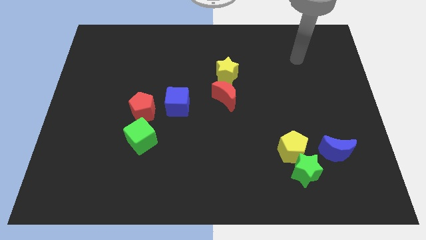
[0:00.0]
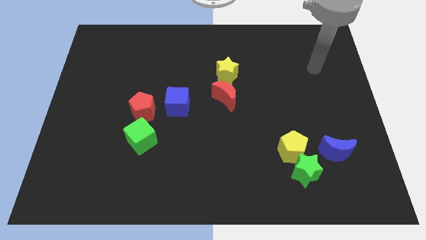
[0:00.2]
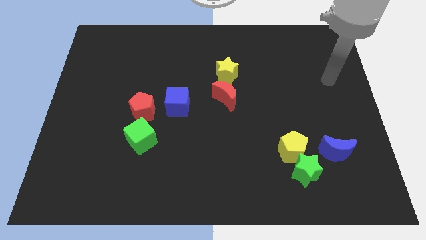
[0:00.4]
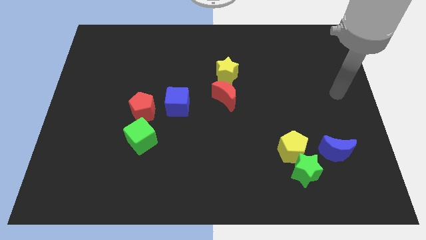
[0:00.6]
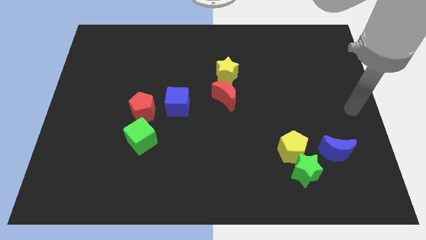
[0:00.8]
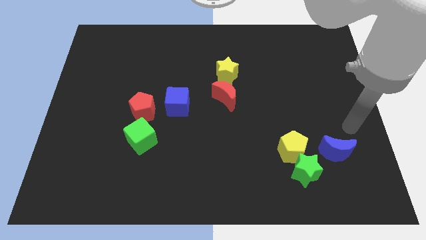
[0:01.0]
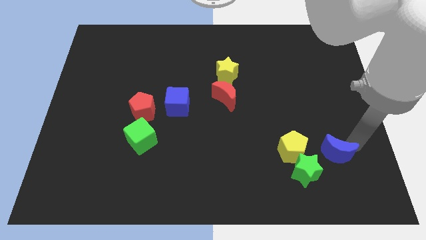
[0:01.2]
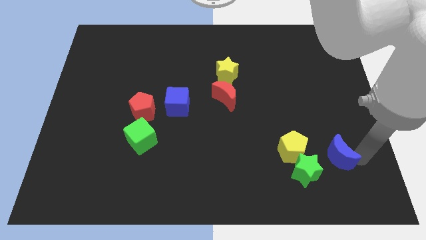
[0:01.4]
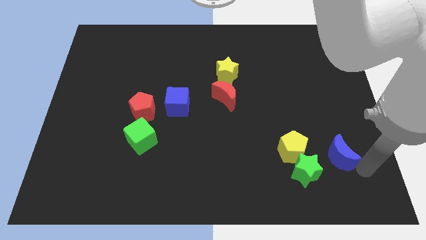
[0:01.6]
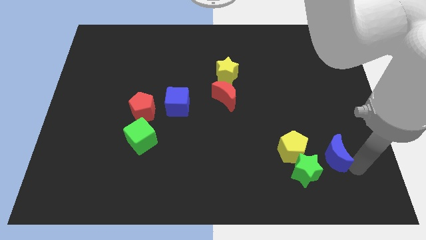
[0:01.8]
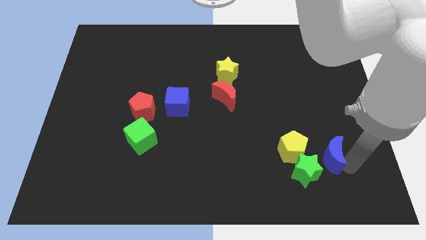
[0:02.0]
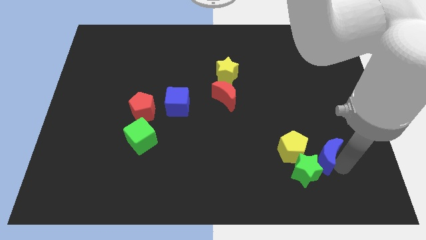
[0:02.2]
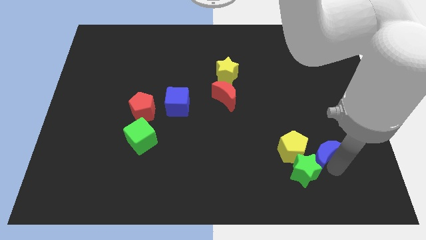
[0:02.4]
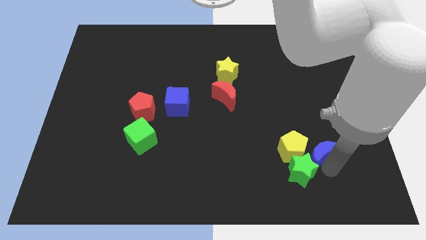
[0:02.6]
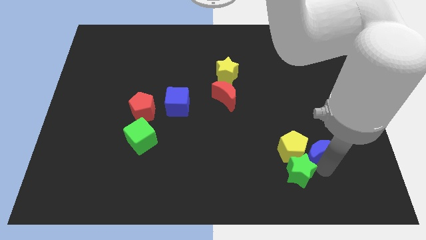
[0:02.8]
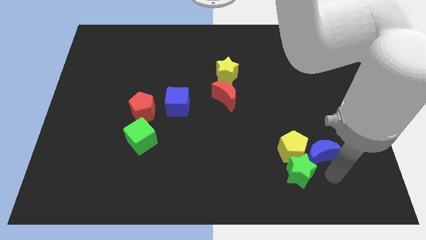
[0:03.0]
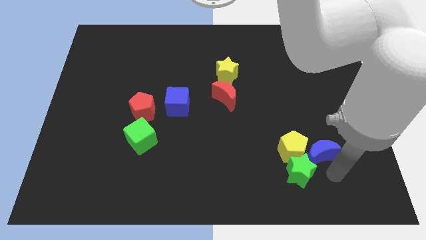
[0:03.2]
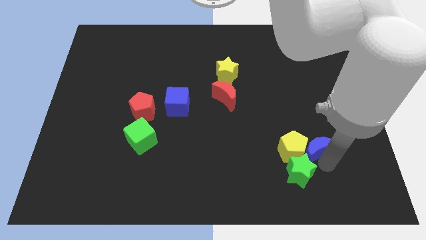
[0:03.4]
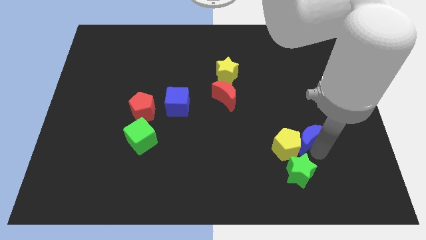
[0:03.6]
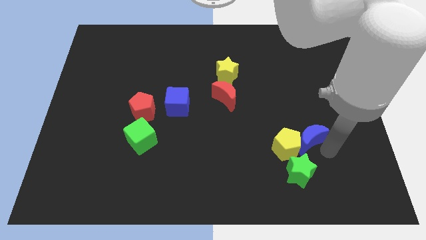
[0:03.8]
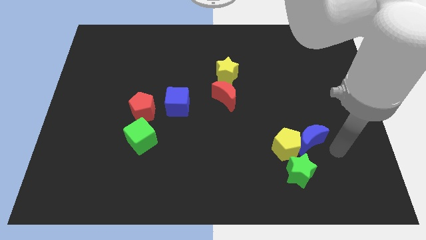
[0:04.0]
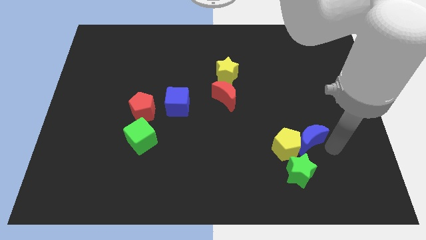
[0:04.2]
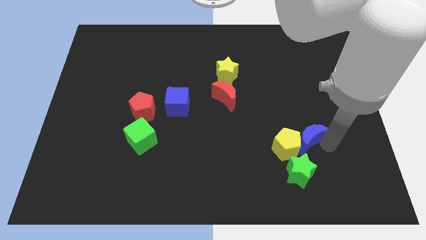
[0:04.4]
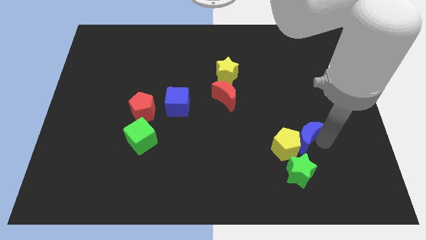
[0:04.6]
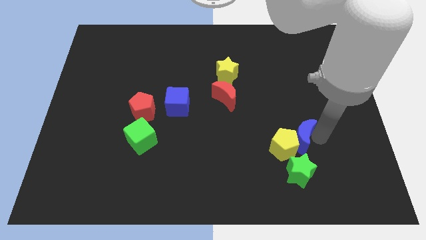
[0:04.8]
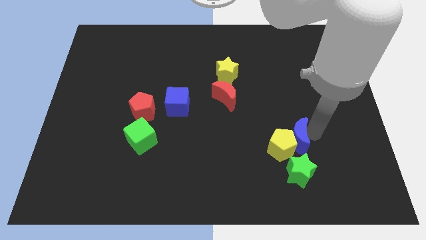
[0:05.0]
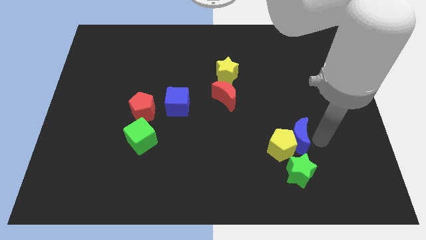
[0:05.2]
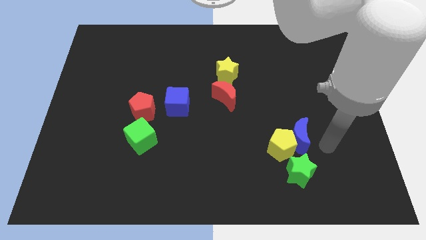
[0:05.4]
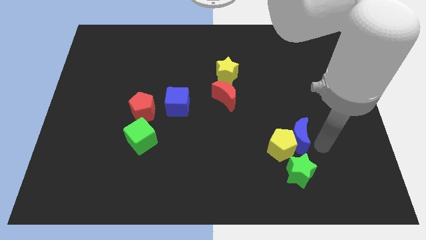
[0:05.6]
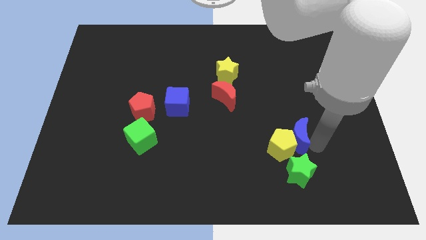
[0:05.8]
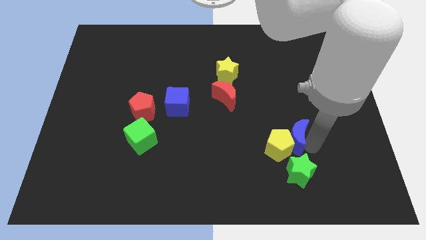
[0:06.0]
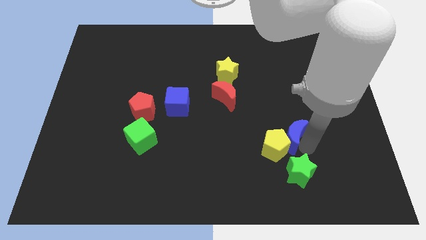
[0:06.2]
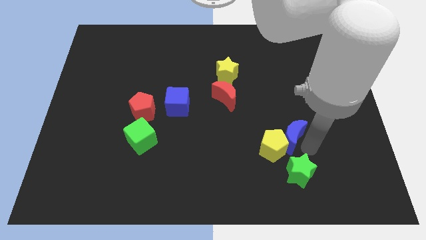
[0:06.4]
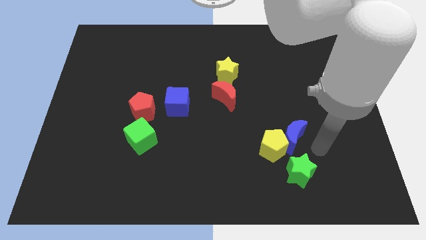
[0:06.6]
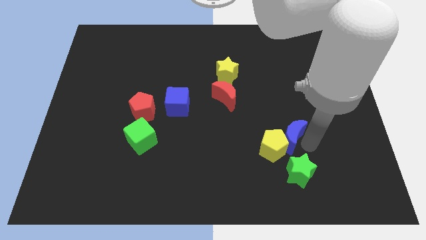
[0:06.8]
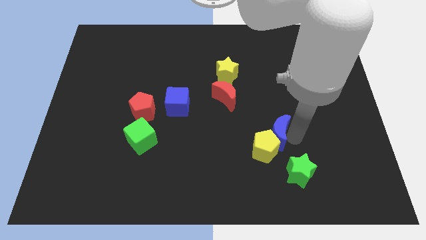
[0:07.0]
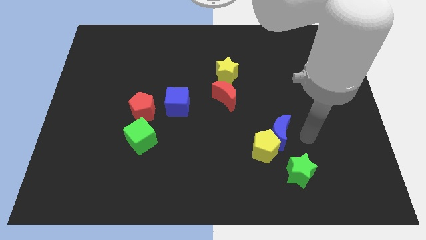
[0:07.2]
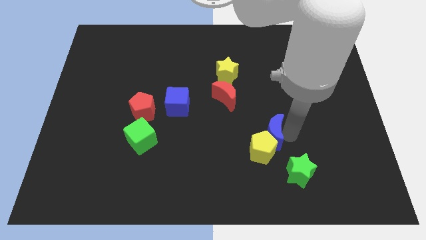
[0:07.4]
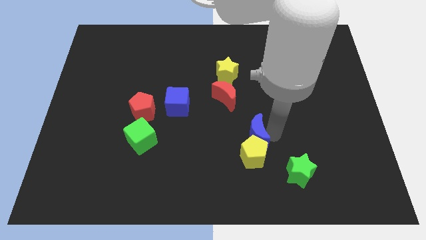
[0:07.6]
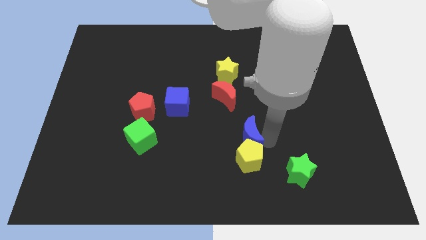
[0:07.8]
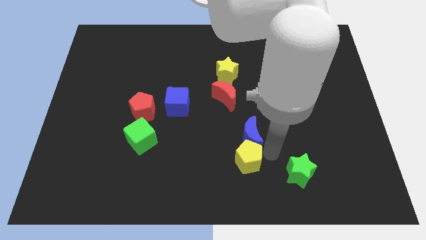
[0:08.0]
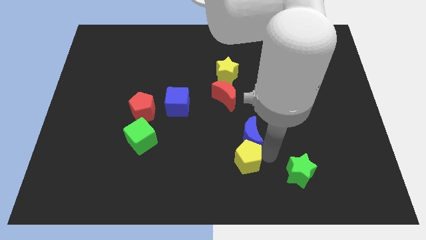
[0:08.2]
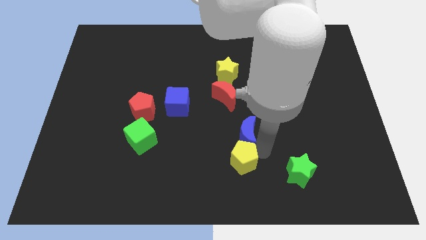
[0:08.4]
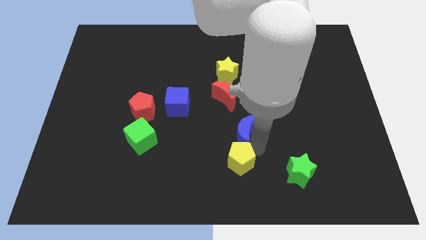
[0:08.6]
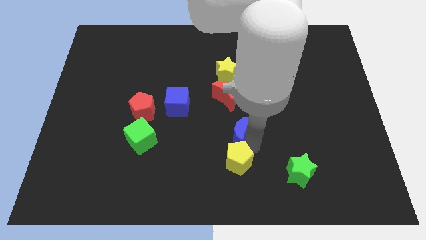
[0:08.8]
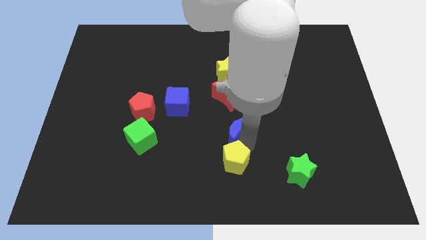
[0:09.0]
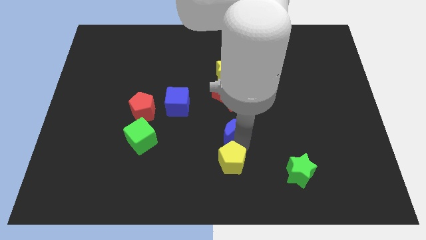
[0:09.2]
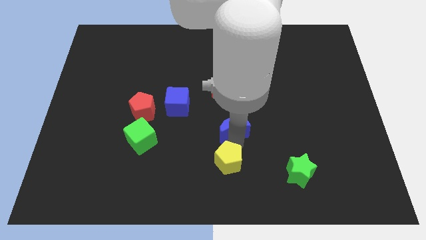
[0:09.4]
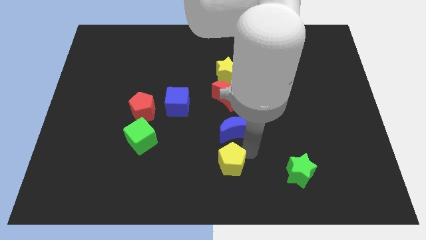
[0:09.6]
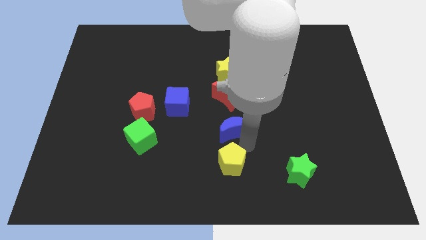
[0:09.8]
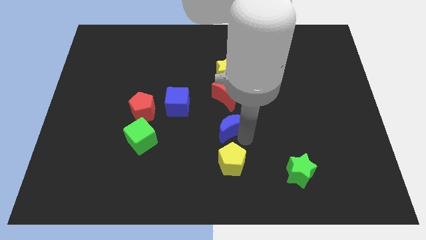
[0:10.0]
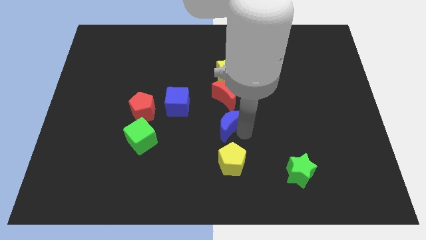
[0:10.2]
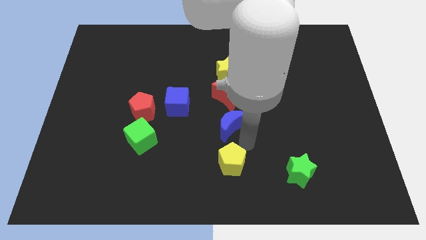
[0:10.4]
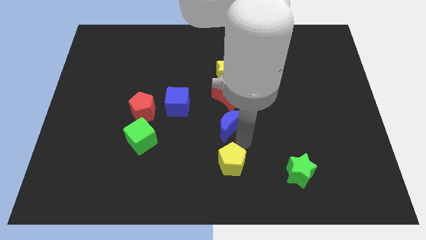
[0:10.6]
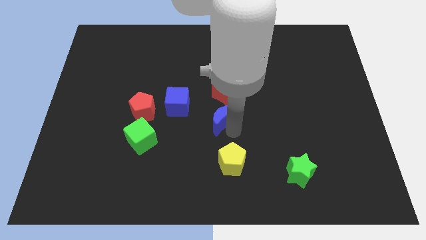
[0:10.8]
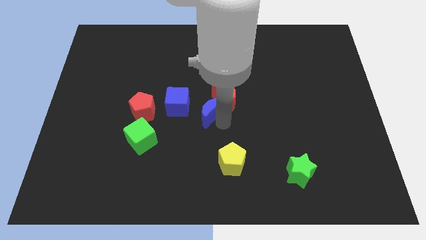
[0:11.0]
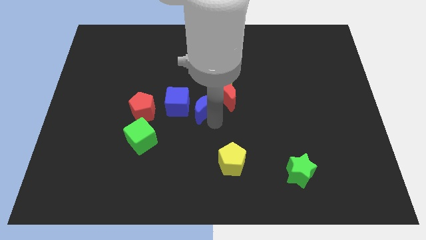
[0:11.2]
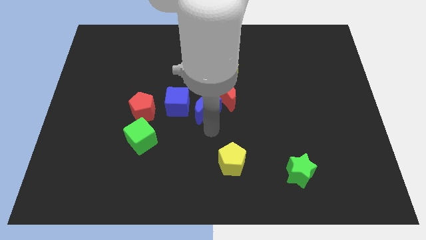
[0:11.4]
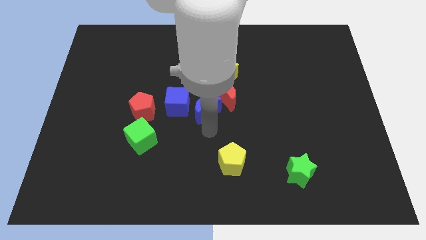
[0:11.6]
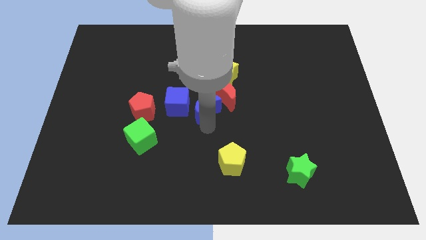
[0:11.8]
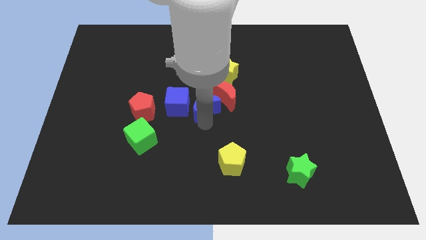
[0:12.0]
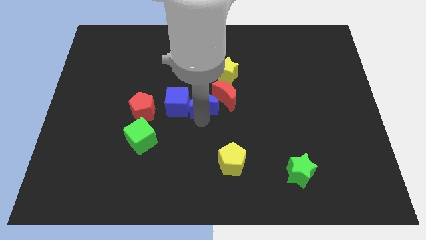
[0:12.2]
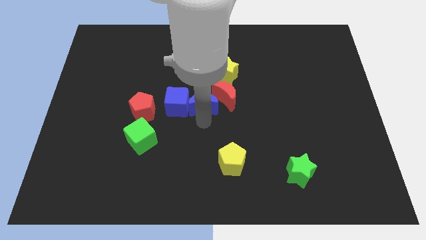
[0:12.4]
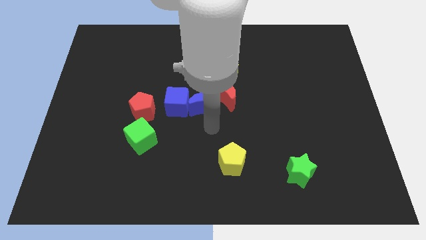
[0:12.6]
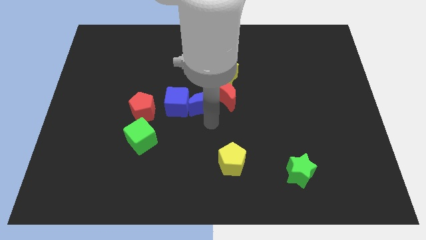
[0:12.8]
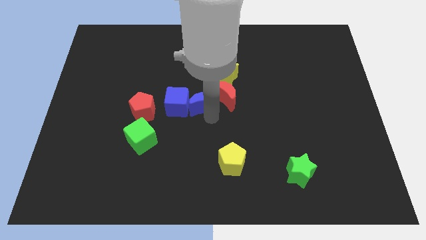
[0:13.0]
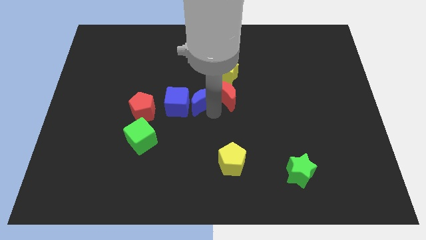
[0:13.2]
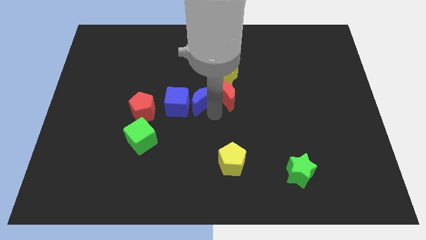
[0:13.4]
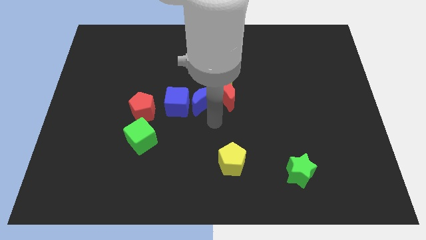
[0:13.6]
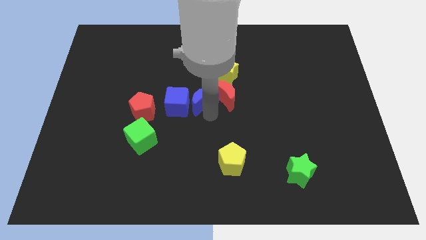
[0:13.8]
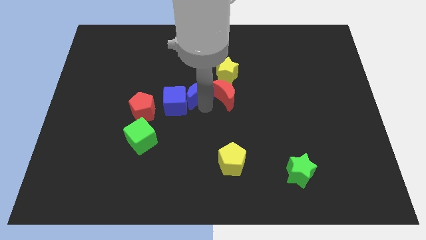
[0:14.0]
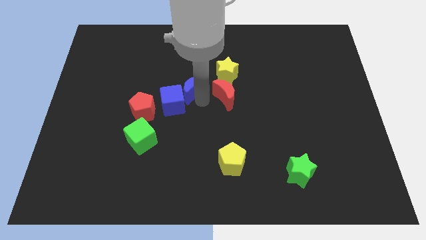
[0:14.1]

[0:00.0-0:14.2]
put the blue moon to the top side of the blue cube
